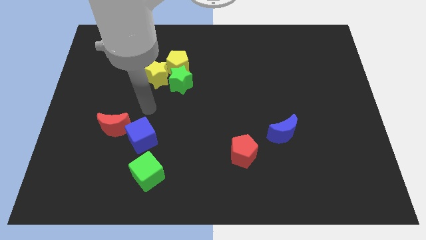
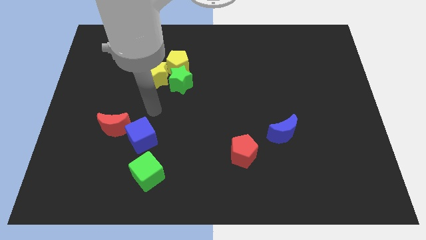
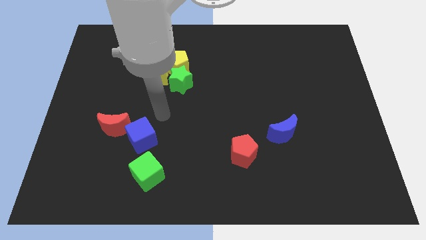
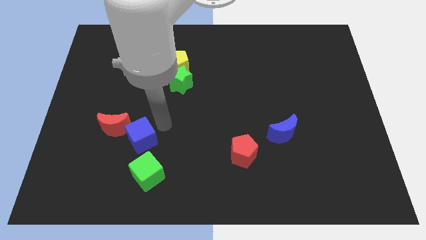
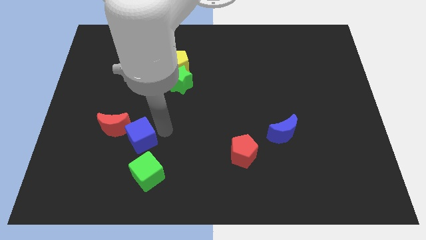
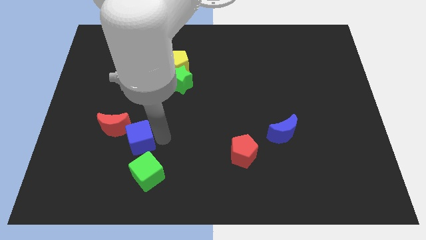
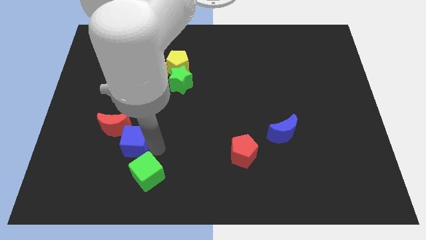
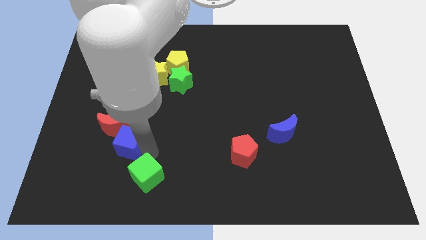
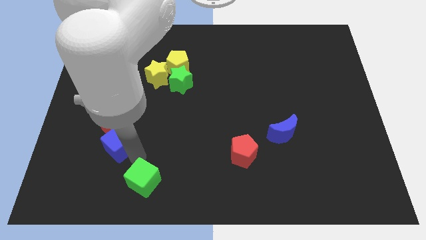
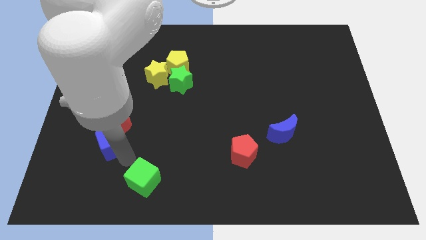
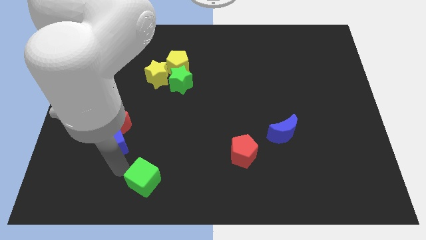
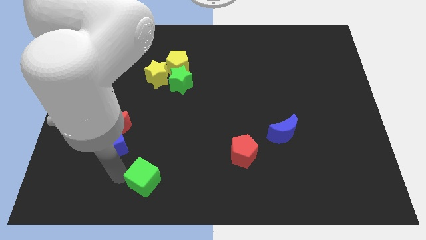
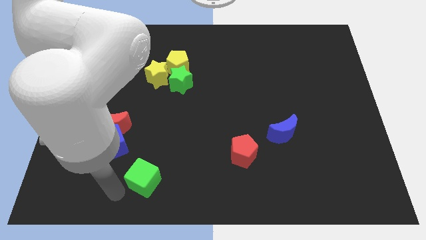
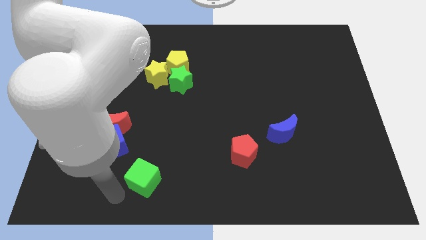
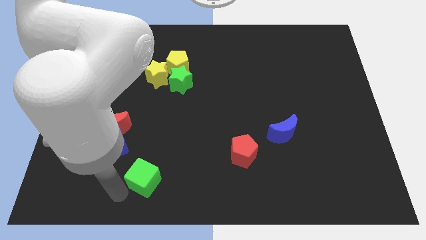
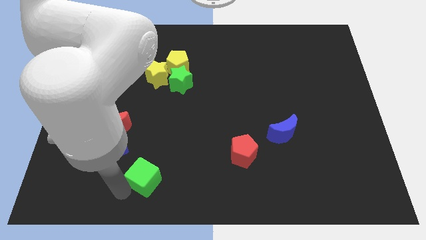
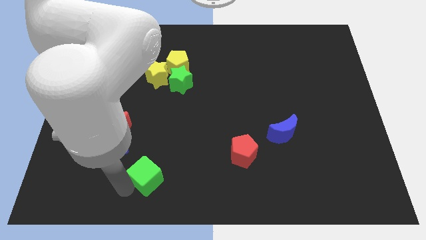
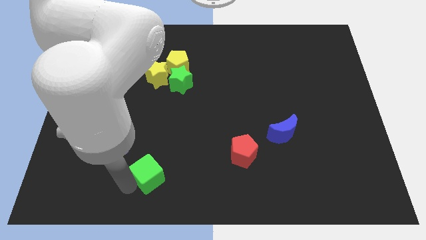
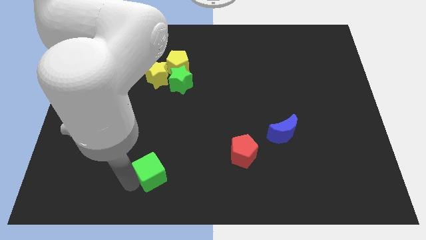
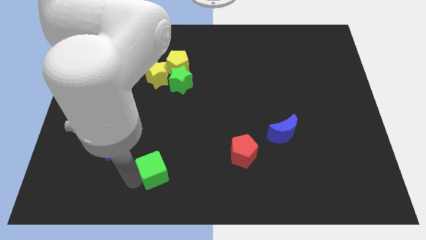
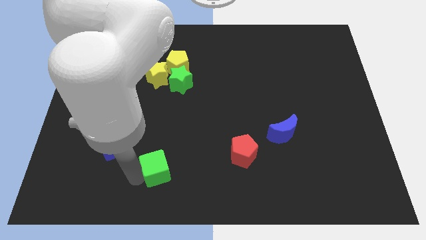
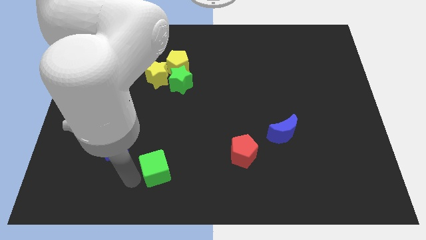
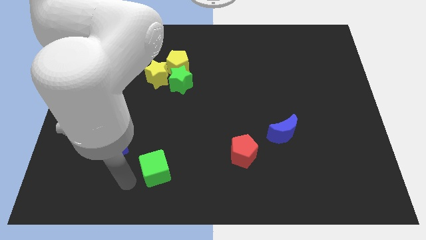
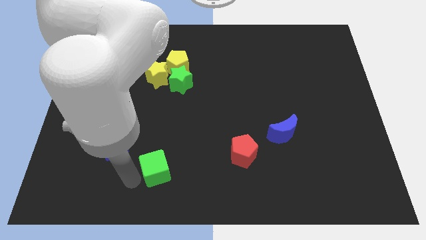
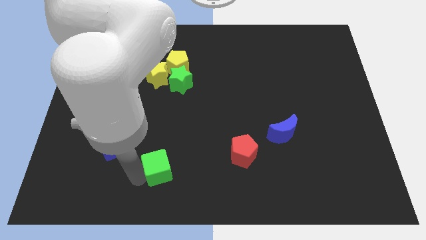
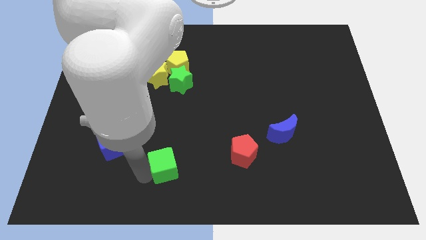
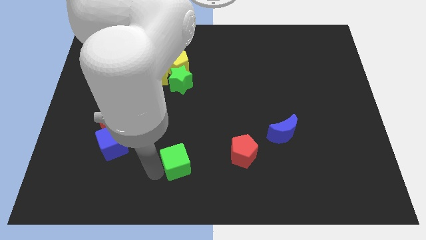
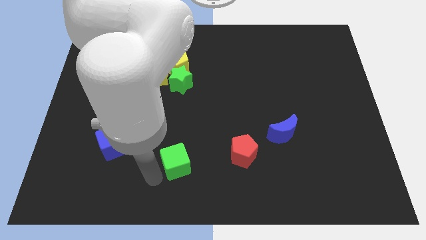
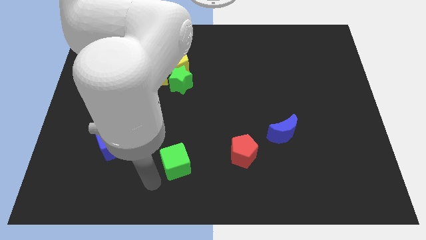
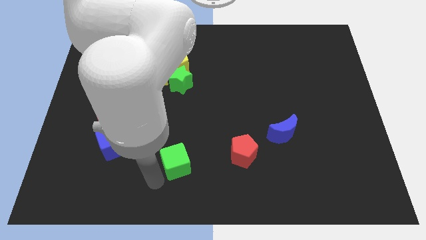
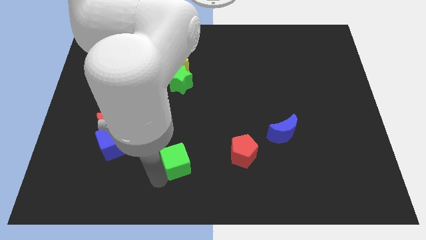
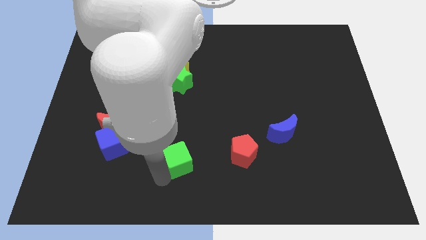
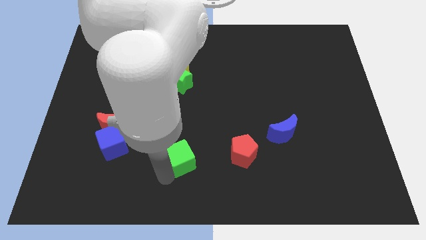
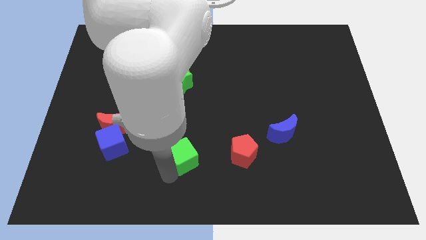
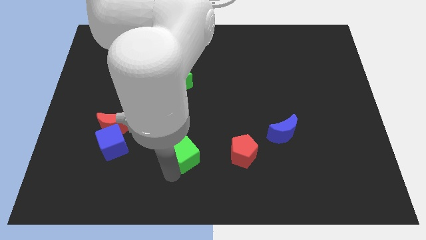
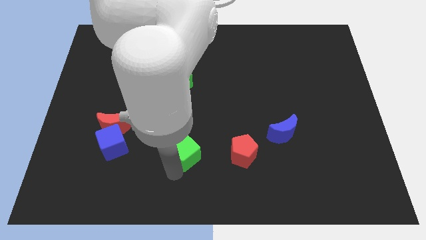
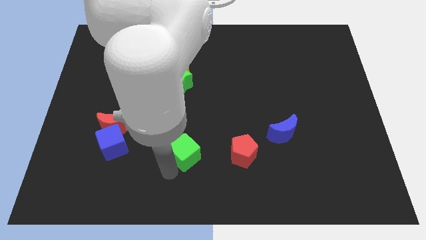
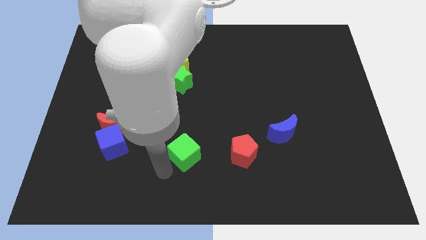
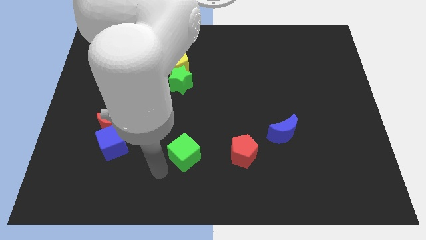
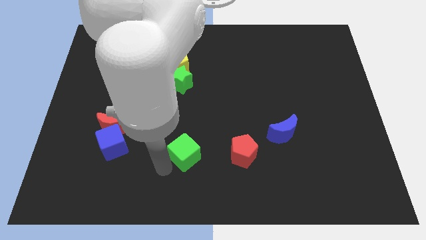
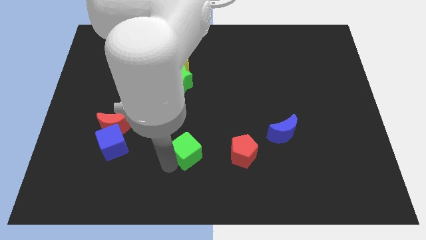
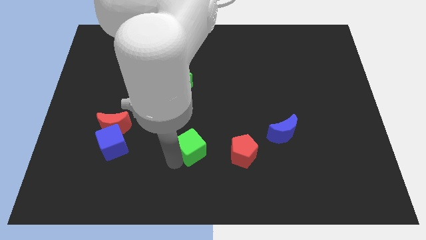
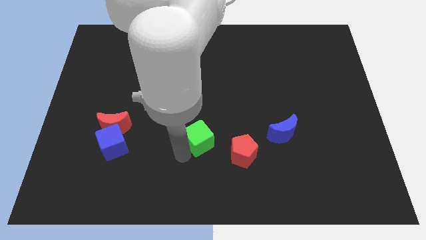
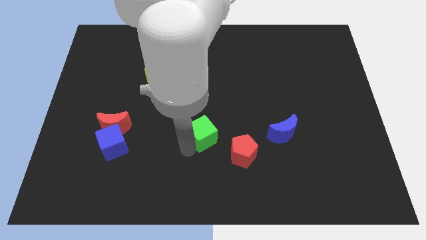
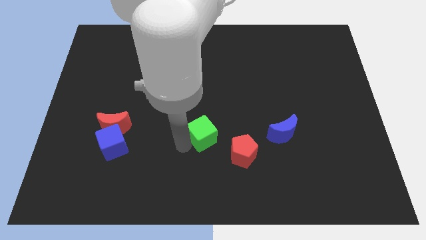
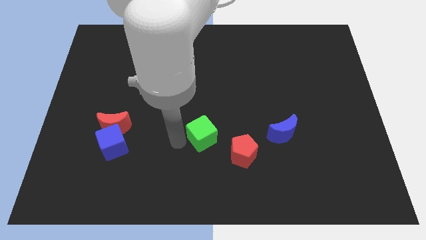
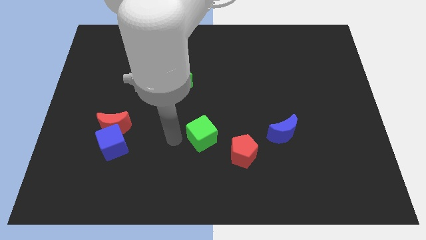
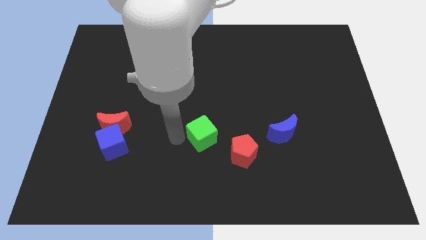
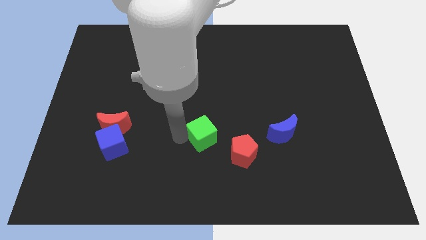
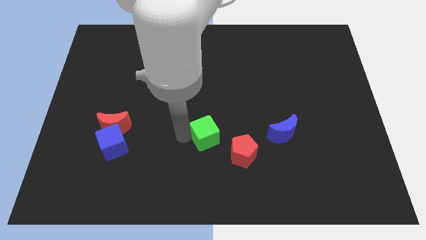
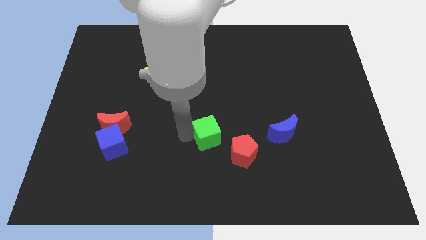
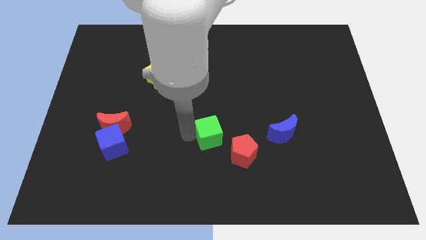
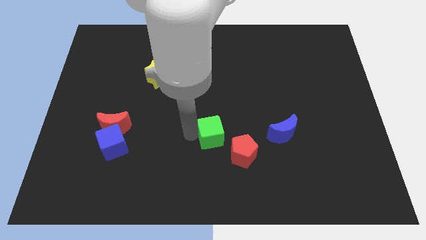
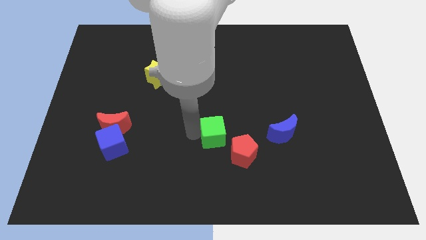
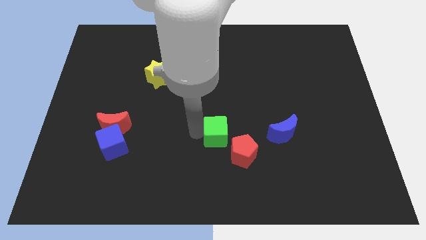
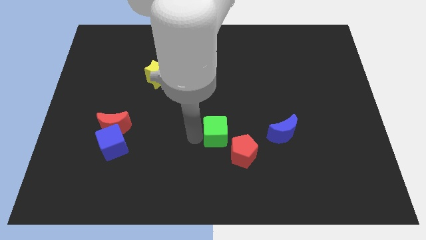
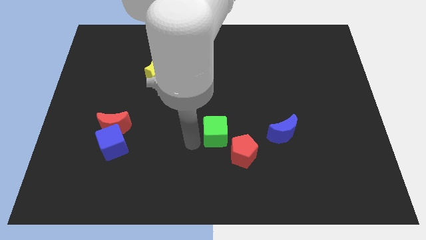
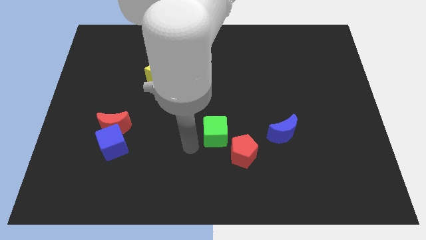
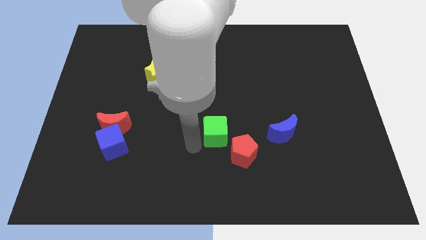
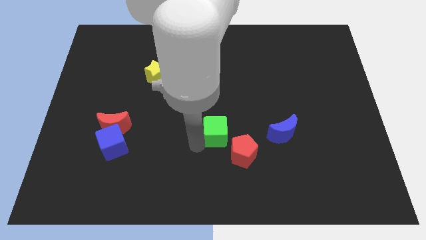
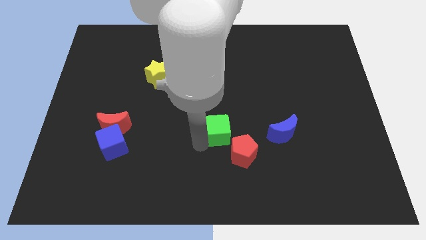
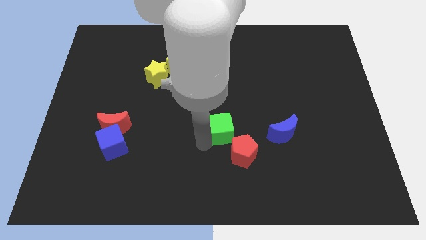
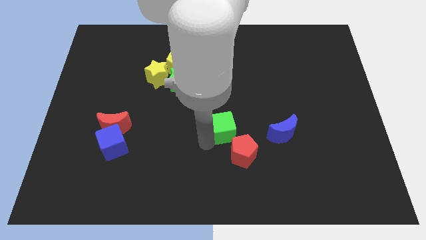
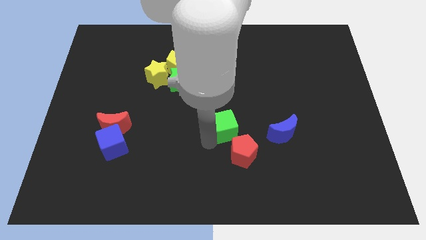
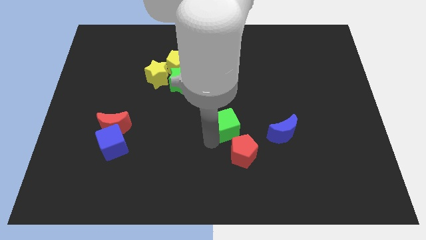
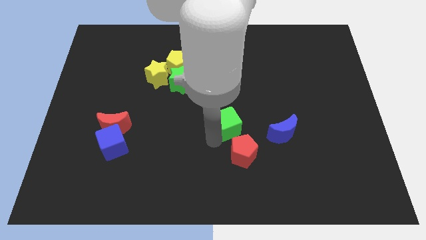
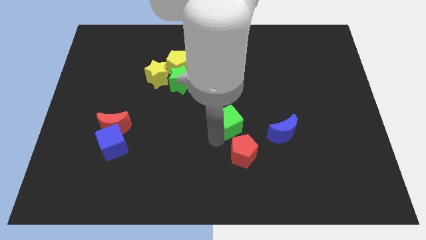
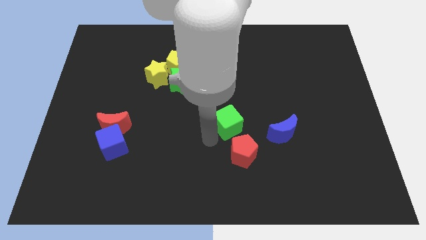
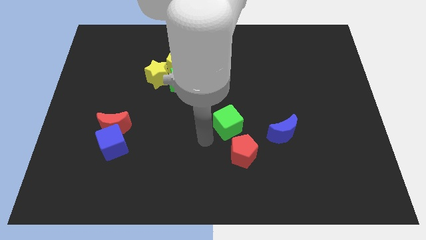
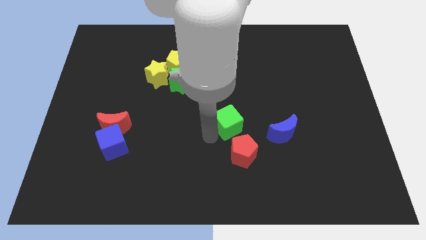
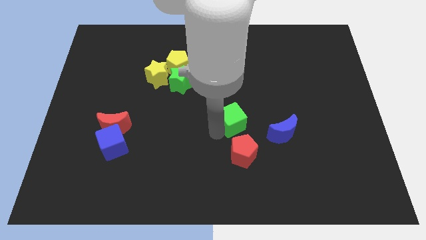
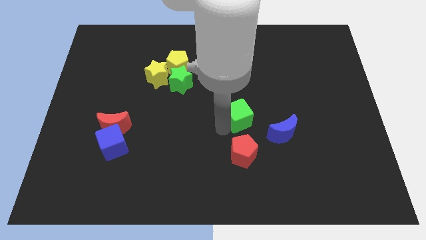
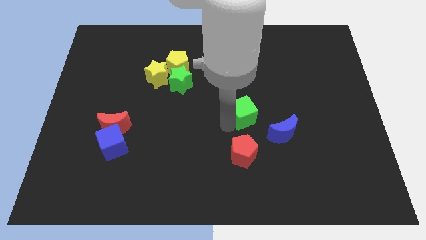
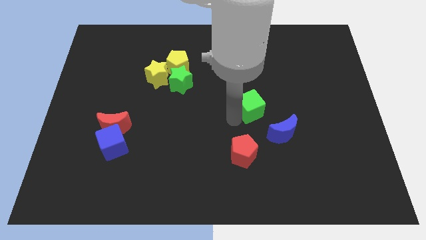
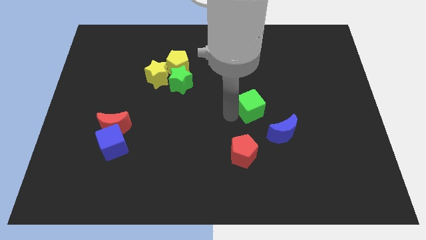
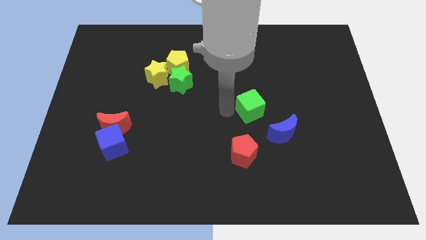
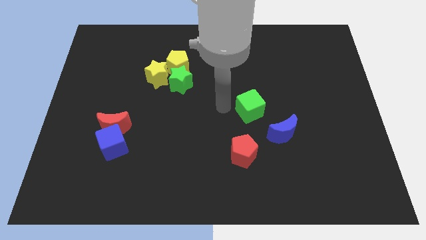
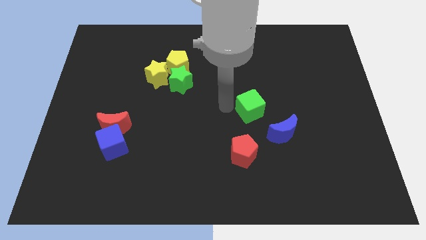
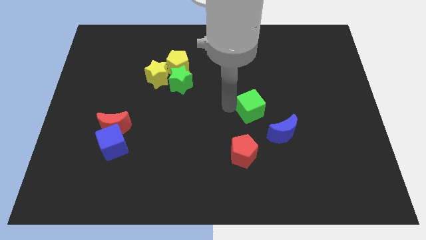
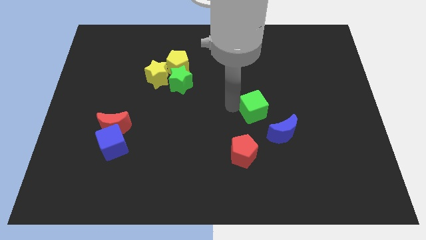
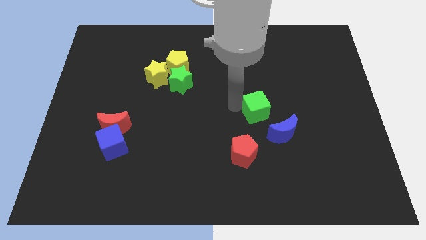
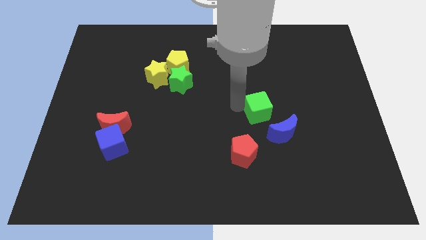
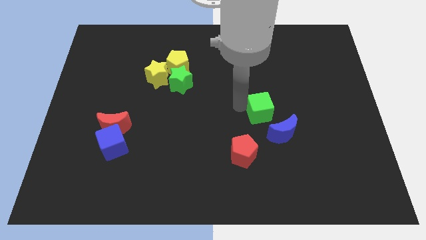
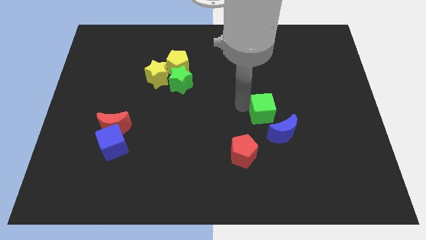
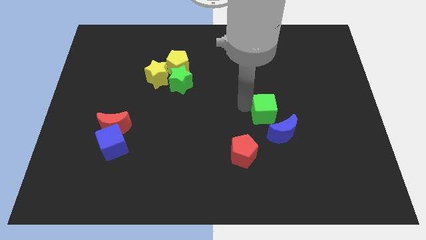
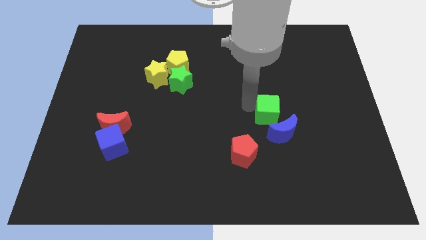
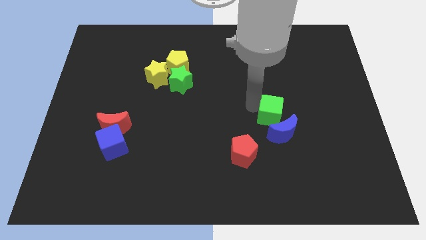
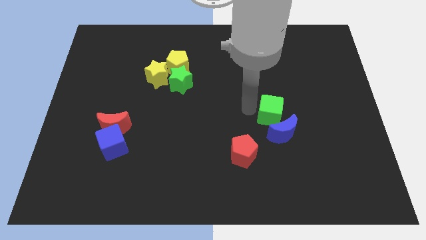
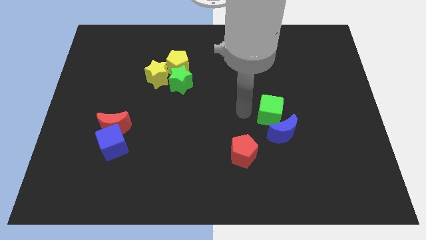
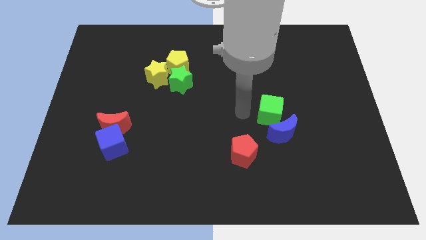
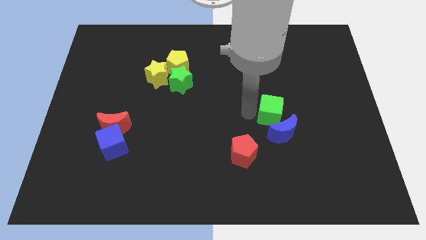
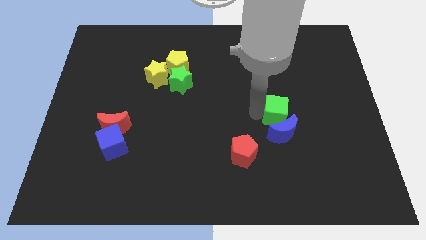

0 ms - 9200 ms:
push the green cube to the top right of the blue moon
